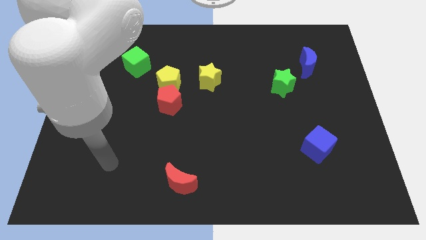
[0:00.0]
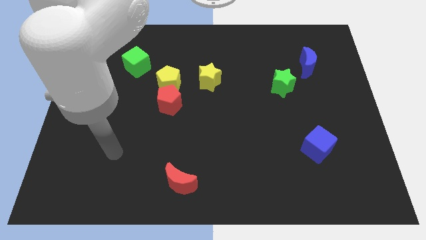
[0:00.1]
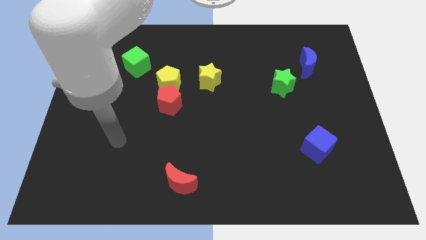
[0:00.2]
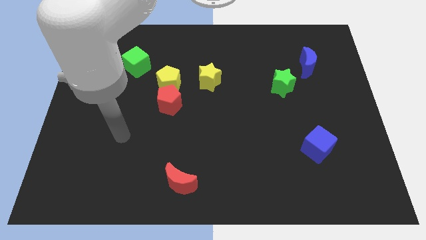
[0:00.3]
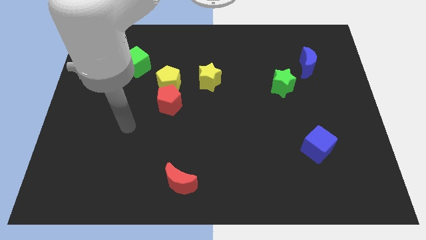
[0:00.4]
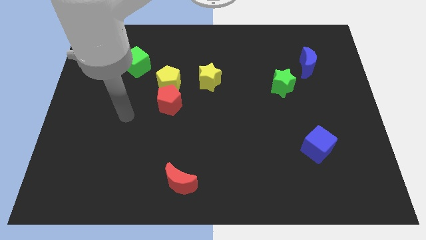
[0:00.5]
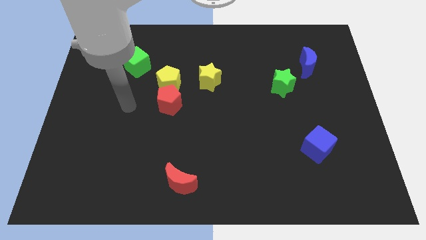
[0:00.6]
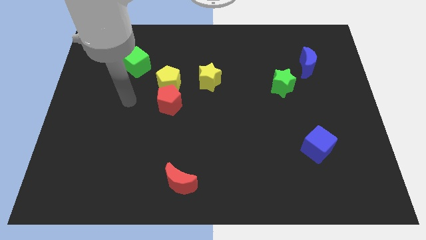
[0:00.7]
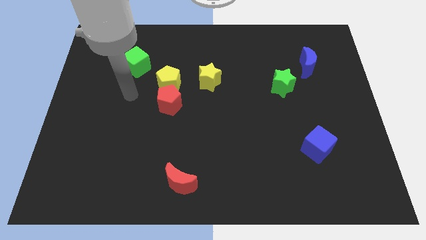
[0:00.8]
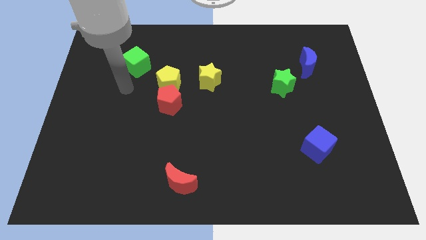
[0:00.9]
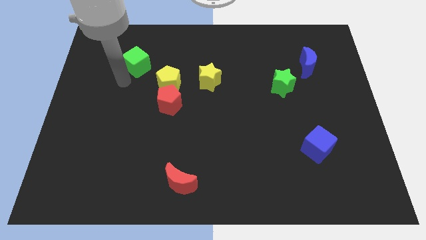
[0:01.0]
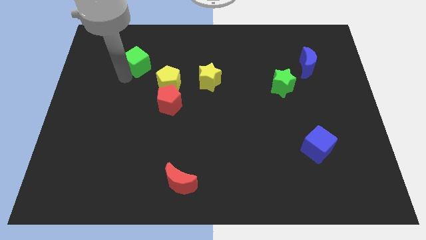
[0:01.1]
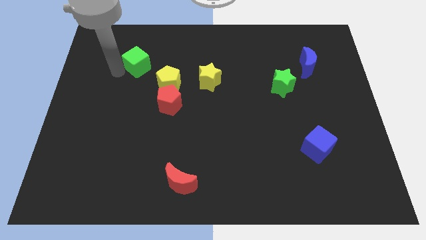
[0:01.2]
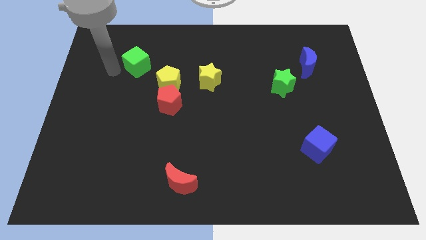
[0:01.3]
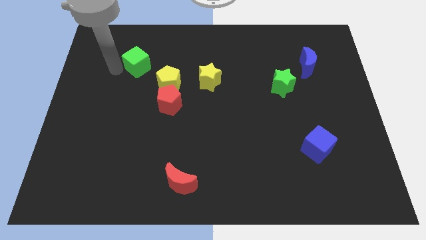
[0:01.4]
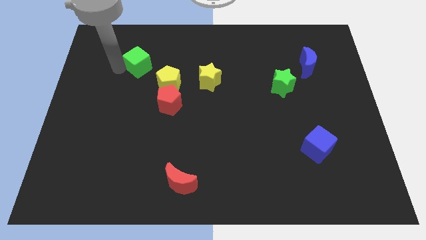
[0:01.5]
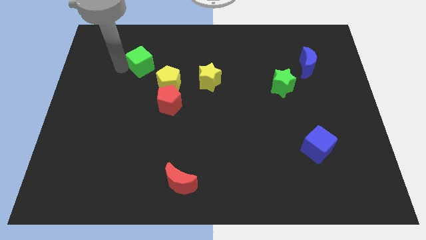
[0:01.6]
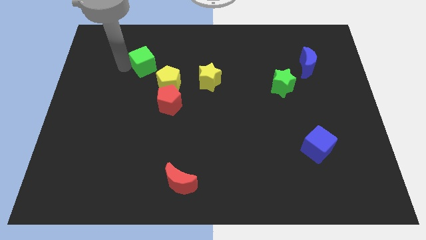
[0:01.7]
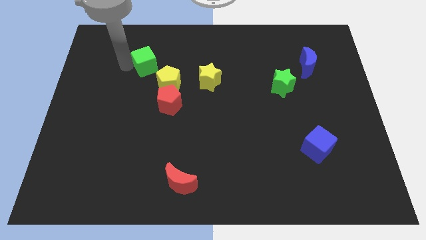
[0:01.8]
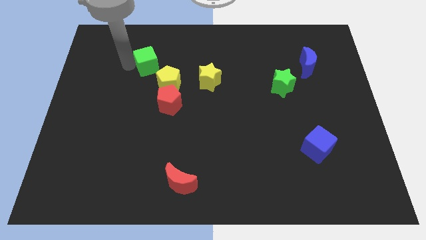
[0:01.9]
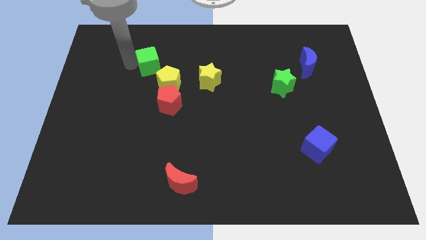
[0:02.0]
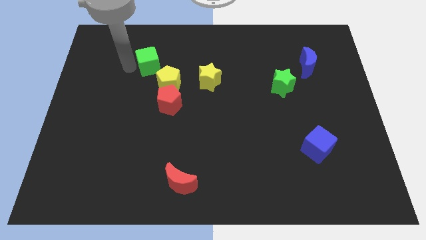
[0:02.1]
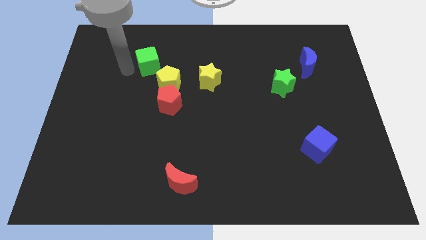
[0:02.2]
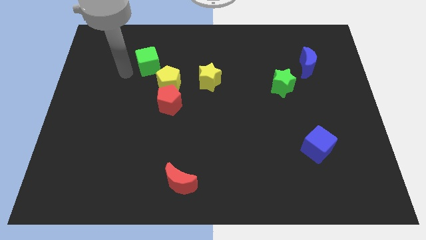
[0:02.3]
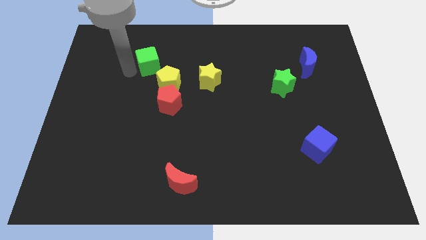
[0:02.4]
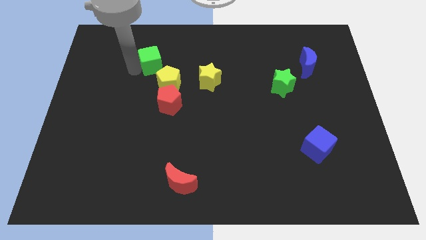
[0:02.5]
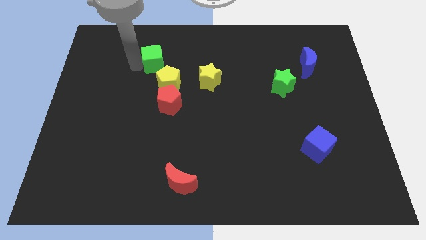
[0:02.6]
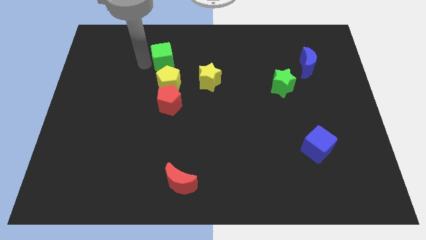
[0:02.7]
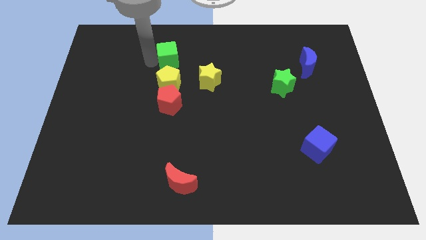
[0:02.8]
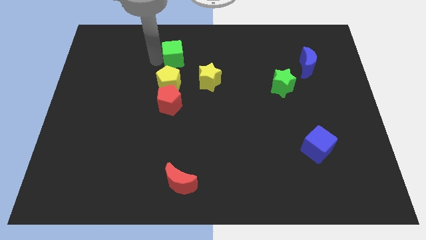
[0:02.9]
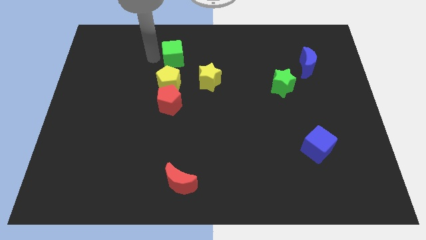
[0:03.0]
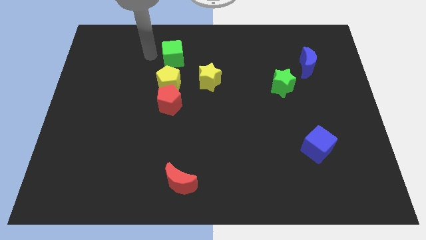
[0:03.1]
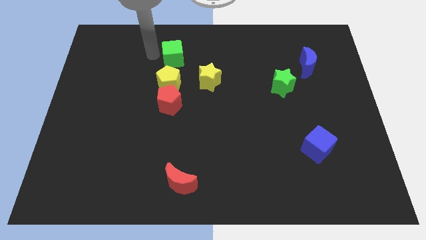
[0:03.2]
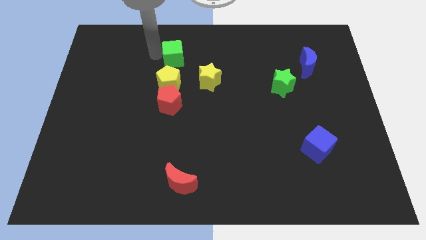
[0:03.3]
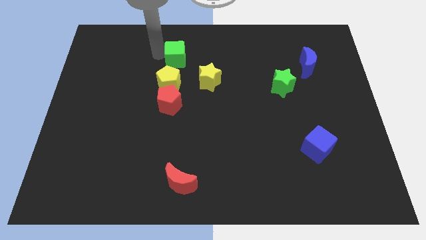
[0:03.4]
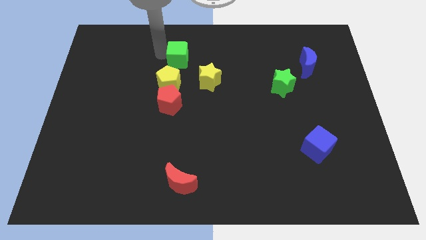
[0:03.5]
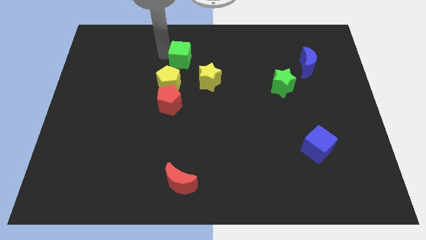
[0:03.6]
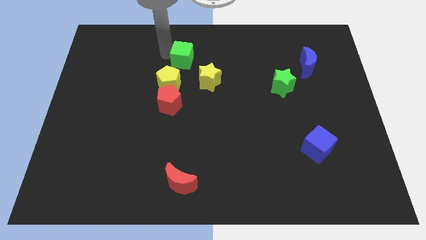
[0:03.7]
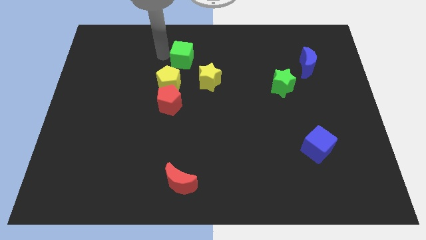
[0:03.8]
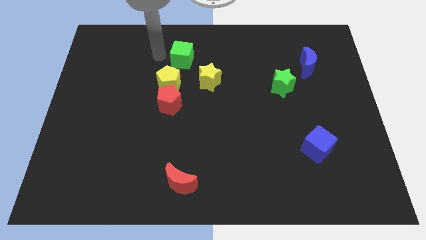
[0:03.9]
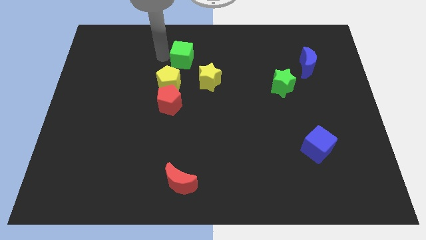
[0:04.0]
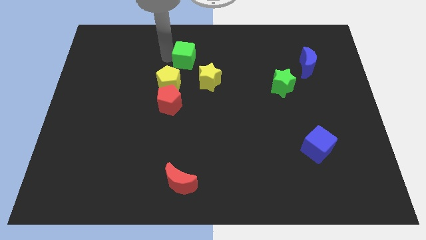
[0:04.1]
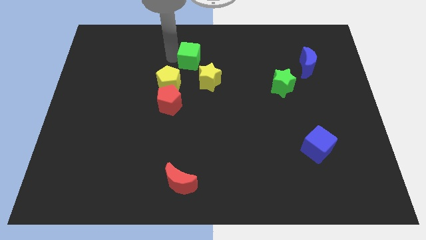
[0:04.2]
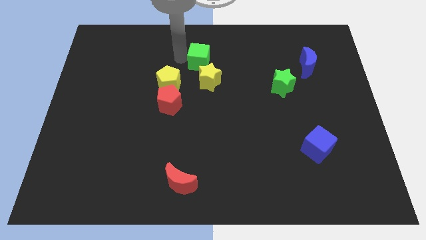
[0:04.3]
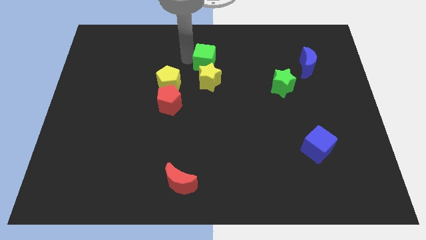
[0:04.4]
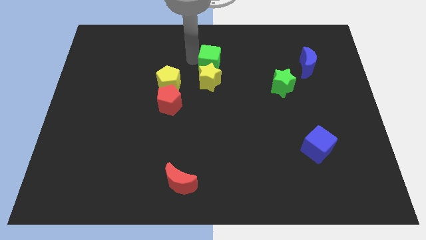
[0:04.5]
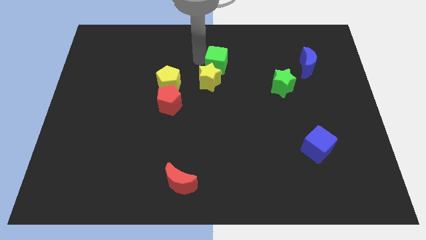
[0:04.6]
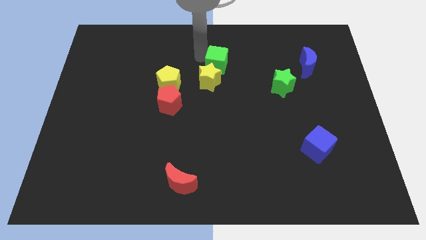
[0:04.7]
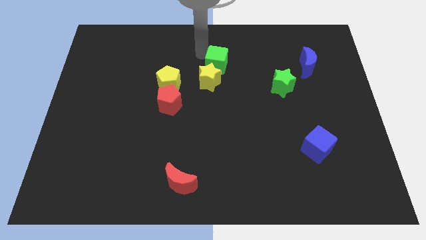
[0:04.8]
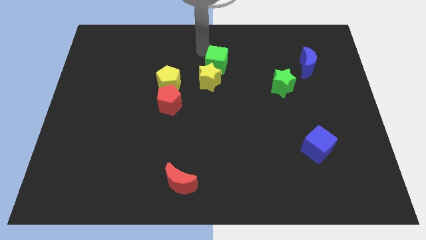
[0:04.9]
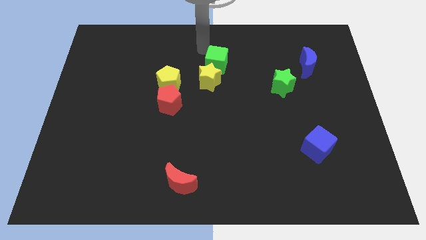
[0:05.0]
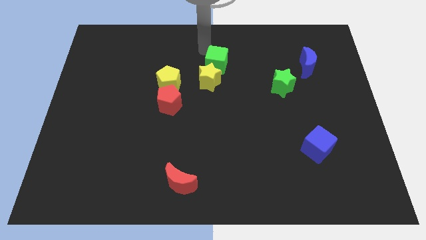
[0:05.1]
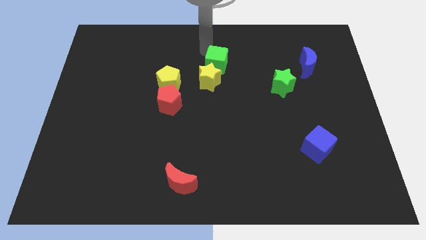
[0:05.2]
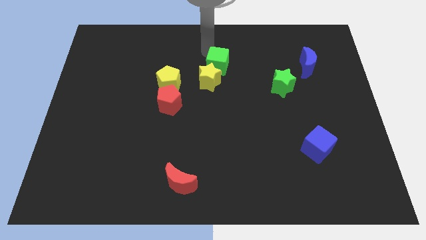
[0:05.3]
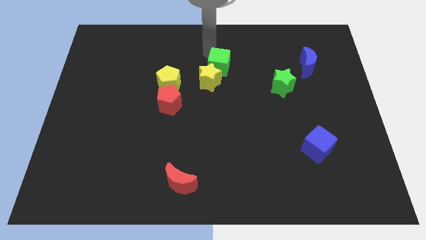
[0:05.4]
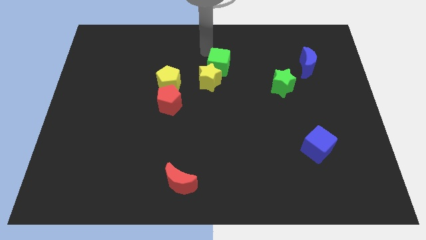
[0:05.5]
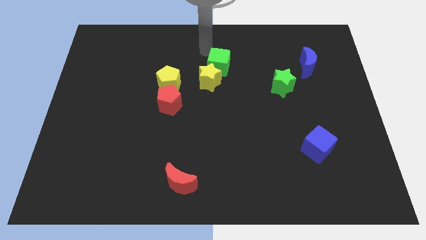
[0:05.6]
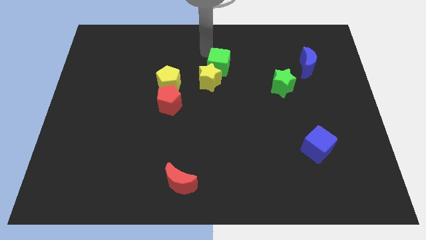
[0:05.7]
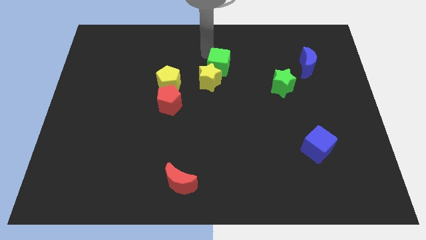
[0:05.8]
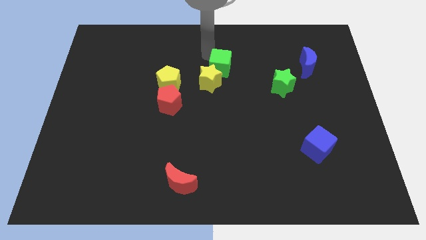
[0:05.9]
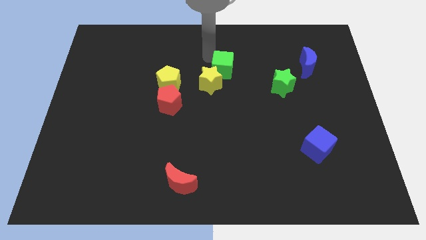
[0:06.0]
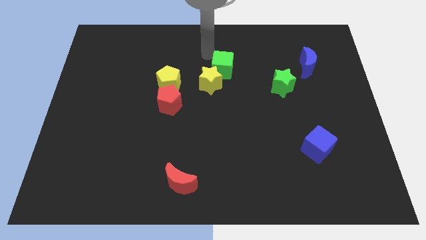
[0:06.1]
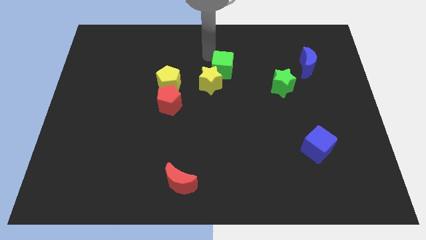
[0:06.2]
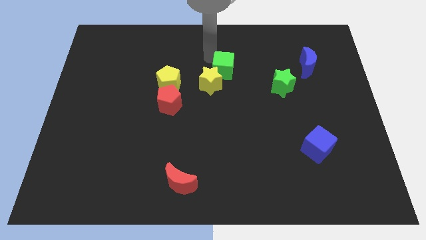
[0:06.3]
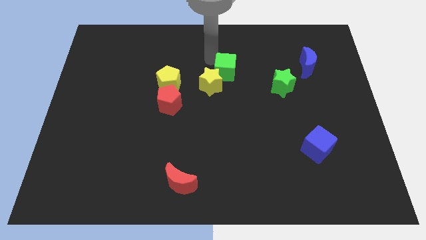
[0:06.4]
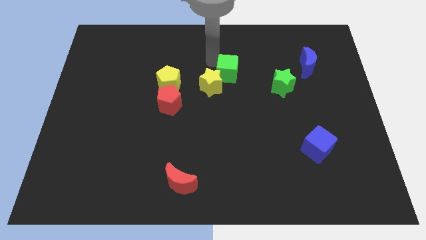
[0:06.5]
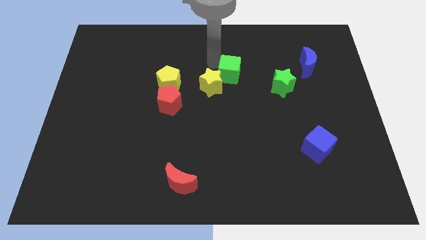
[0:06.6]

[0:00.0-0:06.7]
slide the green cube to the left side of the green star

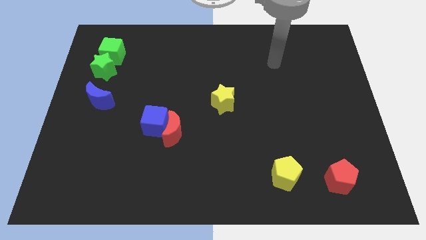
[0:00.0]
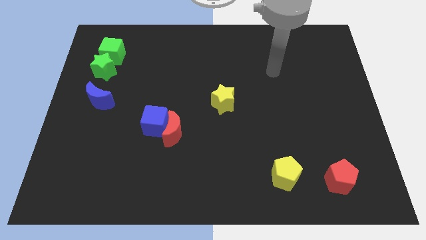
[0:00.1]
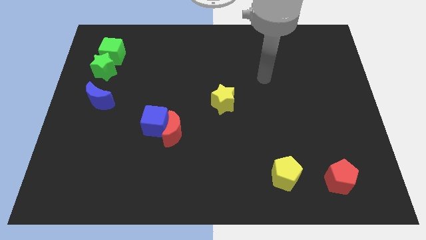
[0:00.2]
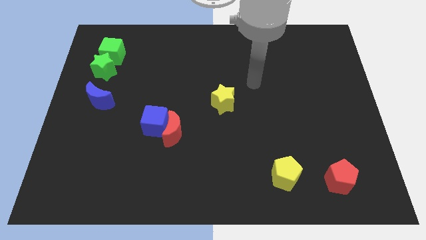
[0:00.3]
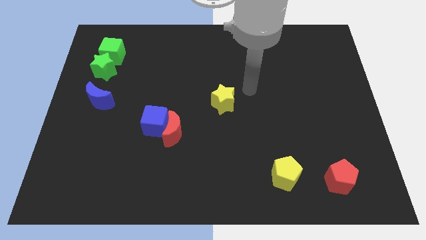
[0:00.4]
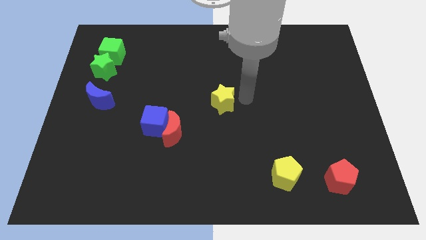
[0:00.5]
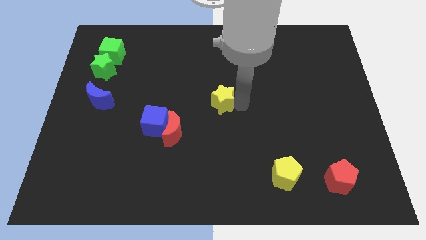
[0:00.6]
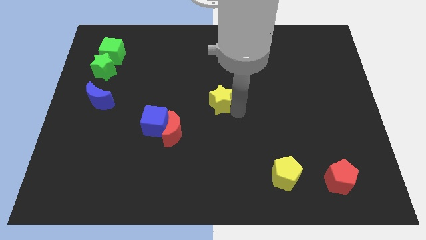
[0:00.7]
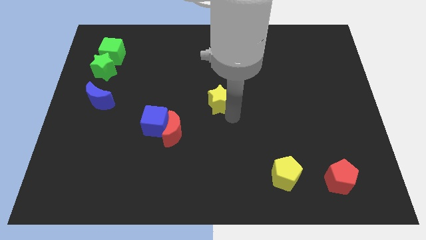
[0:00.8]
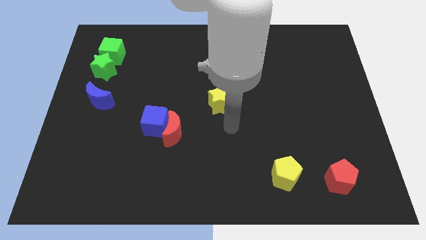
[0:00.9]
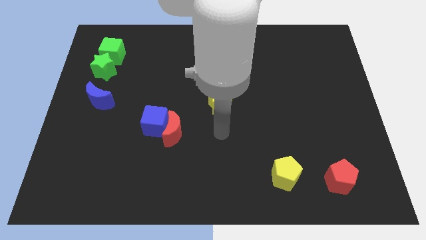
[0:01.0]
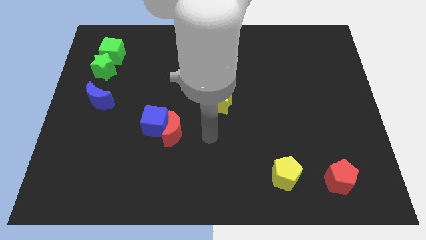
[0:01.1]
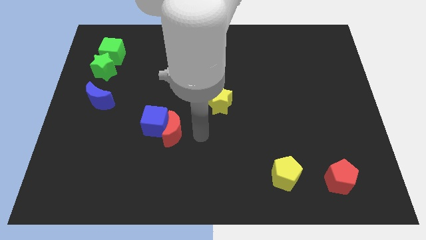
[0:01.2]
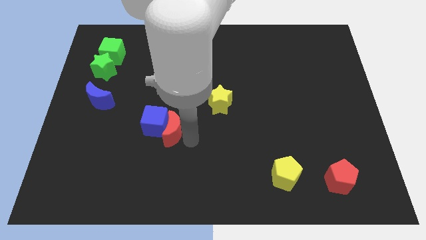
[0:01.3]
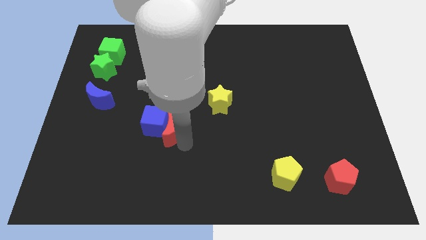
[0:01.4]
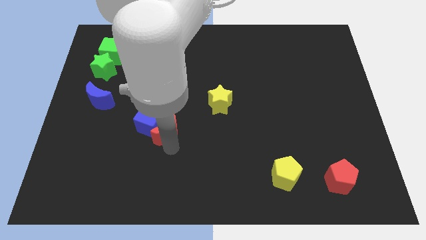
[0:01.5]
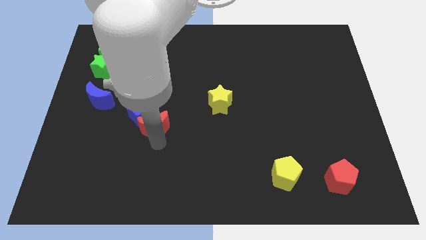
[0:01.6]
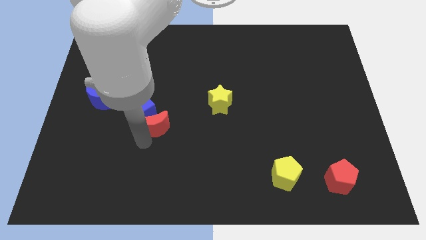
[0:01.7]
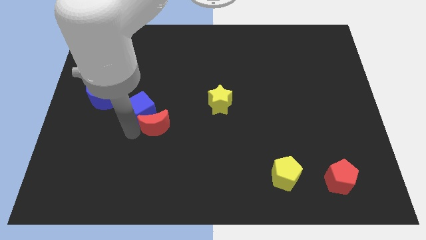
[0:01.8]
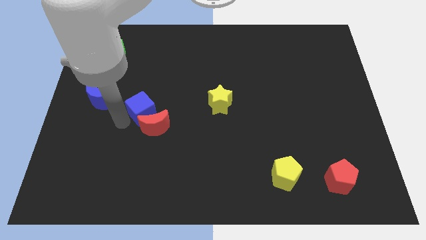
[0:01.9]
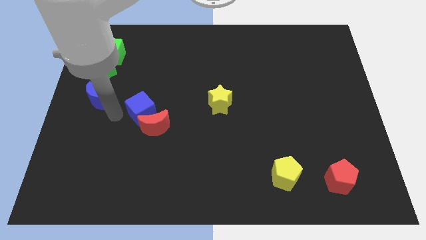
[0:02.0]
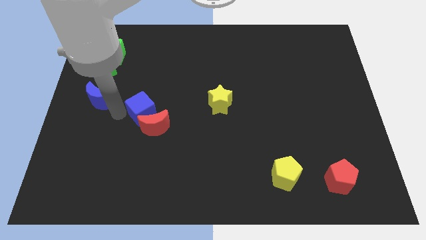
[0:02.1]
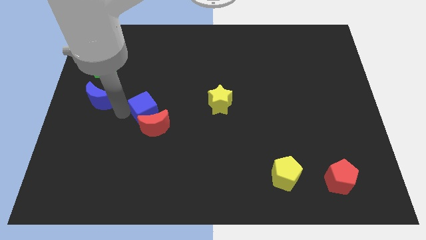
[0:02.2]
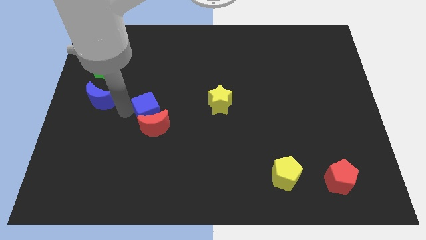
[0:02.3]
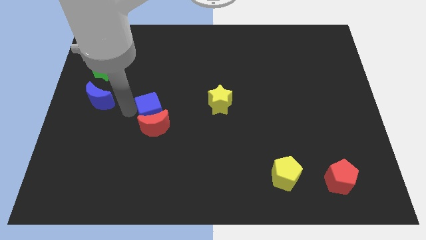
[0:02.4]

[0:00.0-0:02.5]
slide the blue cube to the top right side of the red moon
